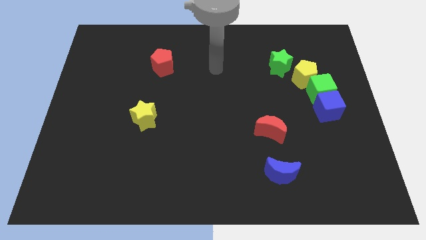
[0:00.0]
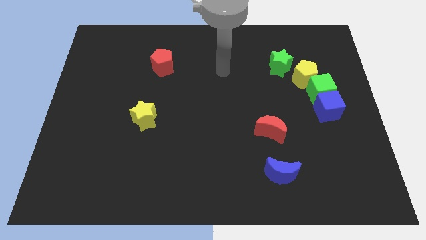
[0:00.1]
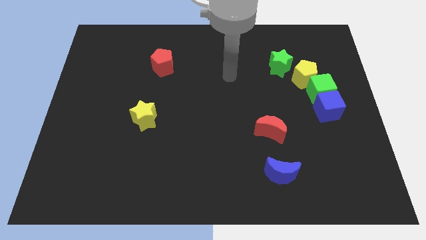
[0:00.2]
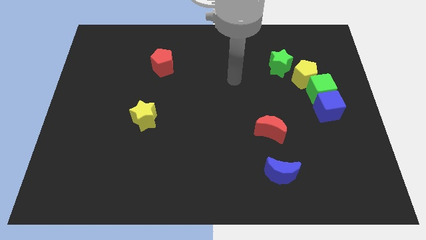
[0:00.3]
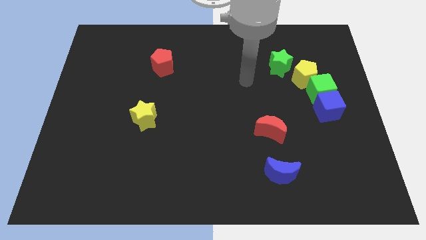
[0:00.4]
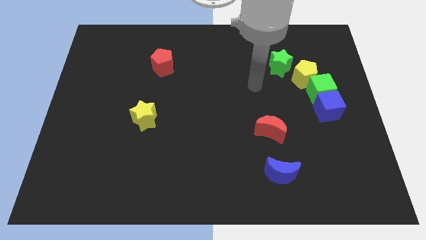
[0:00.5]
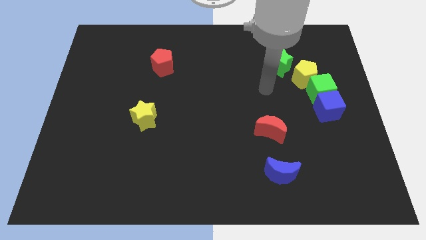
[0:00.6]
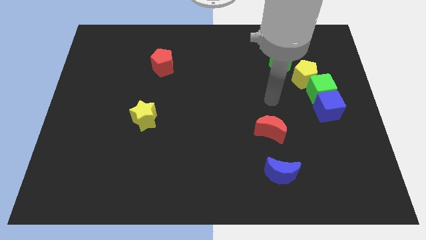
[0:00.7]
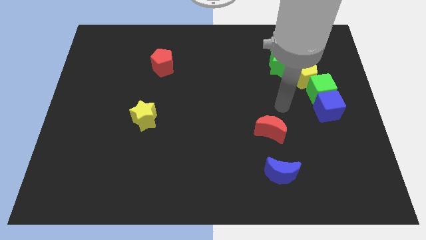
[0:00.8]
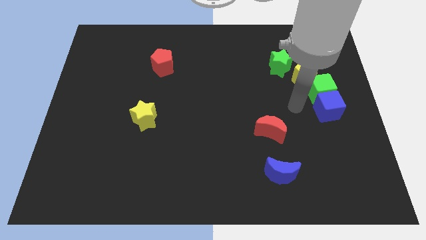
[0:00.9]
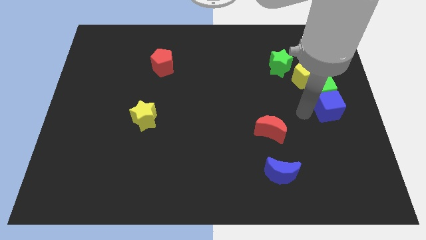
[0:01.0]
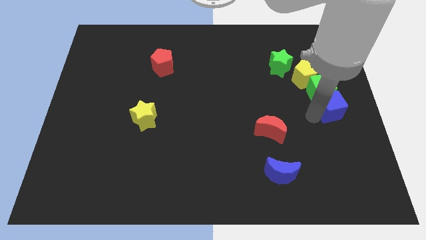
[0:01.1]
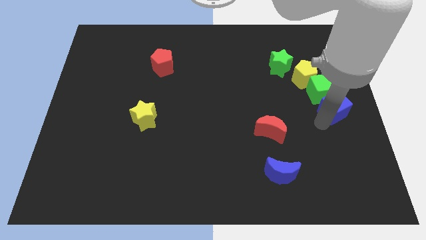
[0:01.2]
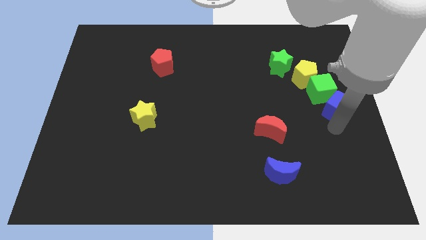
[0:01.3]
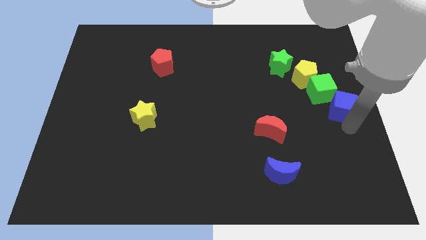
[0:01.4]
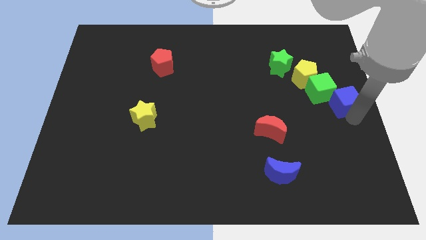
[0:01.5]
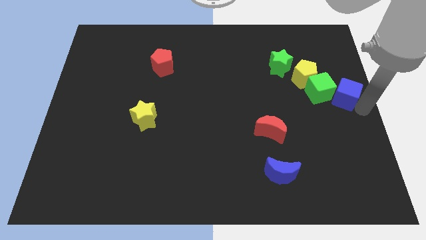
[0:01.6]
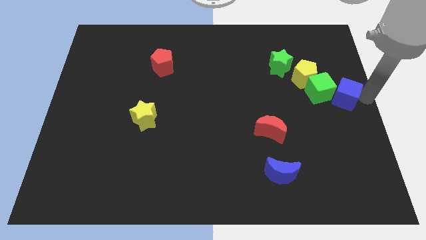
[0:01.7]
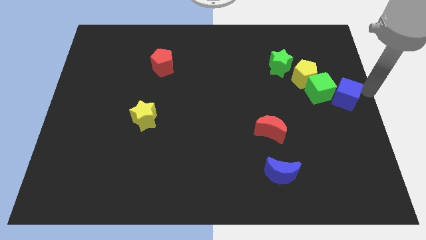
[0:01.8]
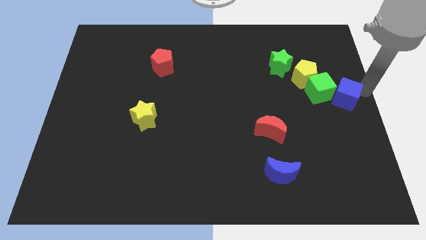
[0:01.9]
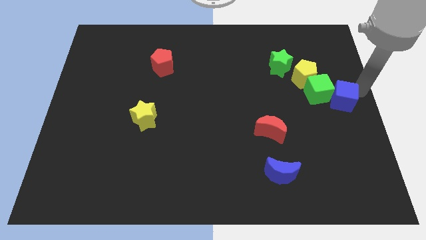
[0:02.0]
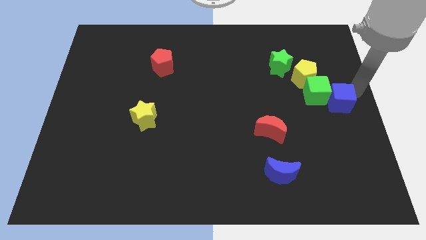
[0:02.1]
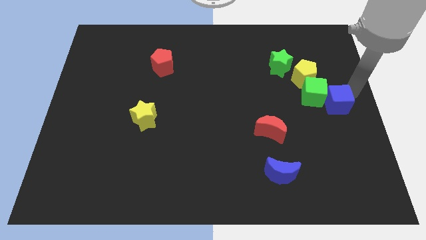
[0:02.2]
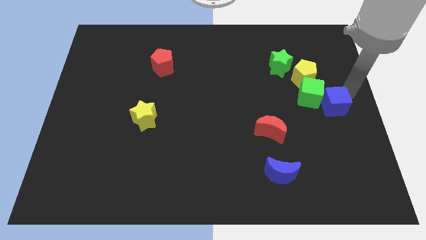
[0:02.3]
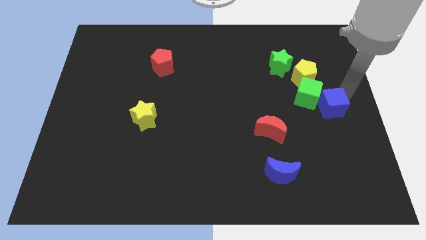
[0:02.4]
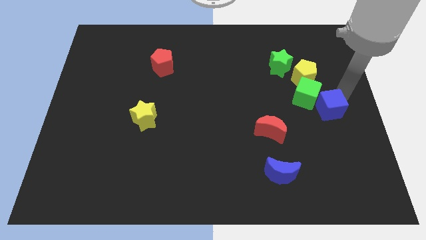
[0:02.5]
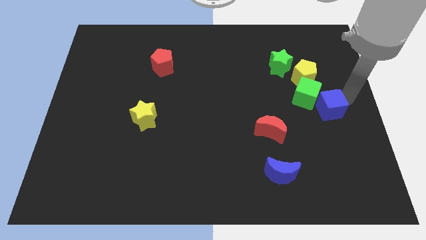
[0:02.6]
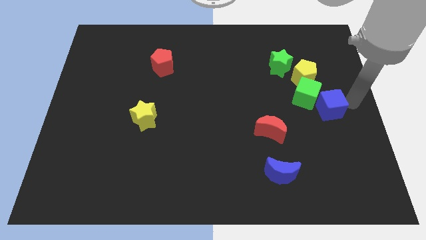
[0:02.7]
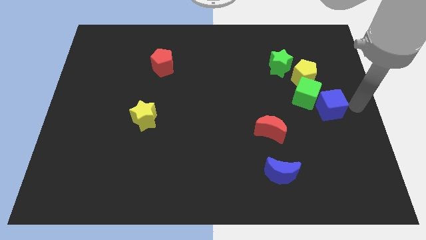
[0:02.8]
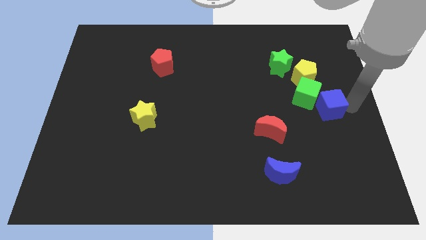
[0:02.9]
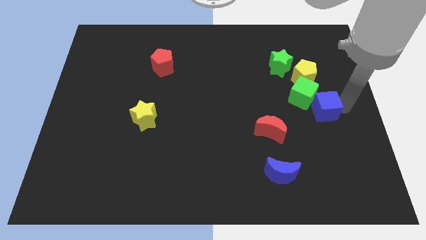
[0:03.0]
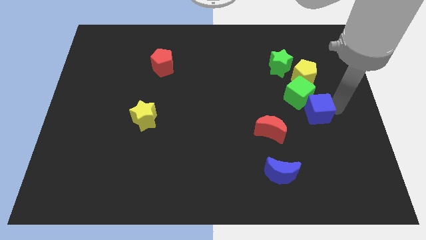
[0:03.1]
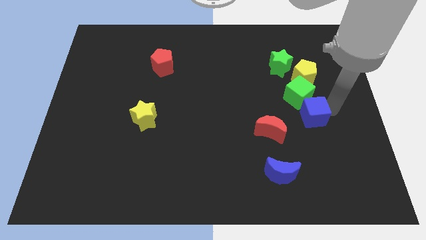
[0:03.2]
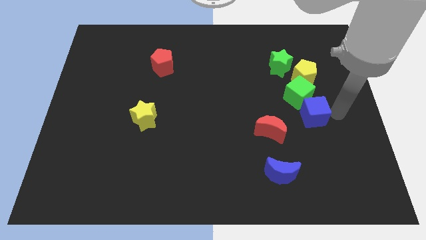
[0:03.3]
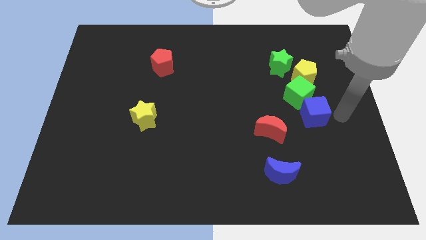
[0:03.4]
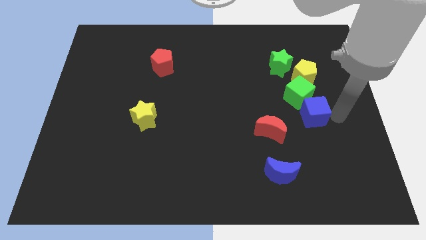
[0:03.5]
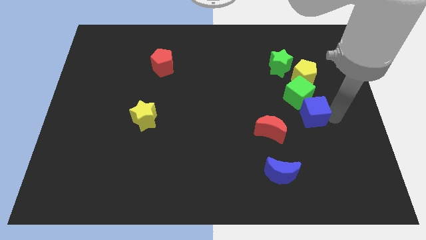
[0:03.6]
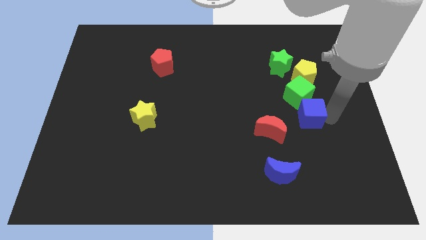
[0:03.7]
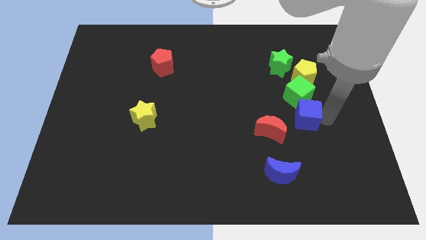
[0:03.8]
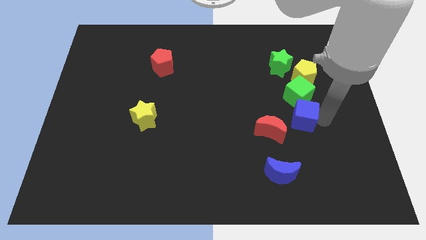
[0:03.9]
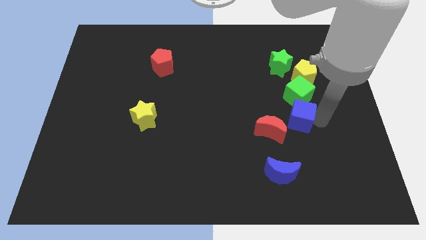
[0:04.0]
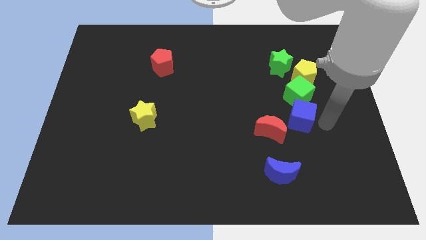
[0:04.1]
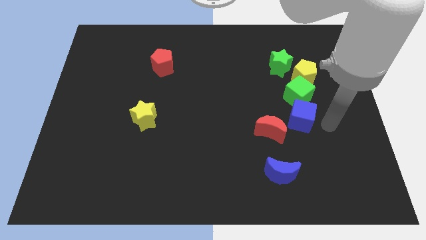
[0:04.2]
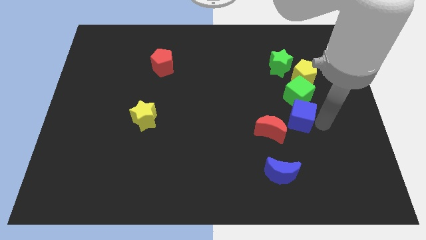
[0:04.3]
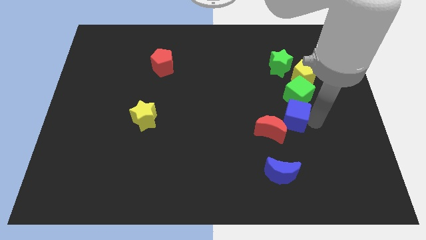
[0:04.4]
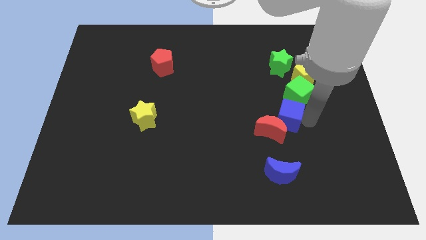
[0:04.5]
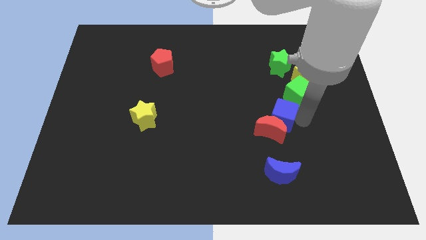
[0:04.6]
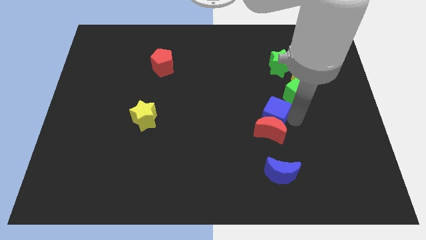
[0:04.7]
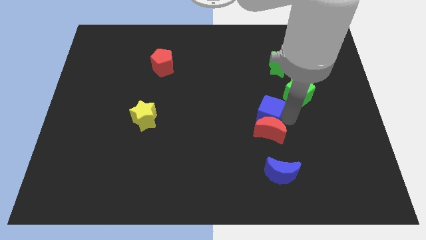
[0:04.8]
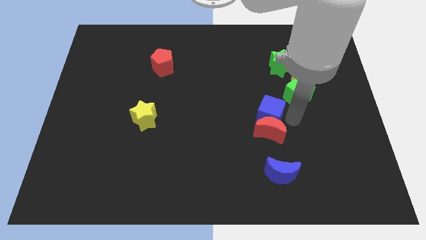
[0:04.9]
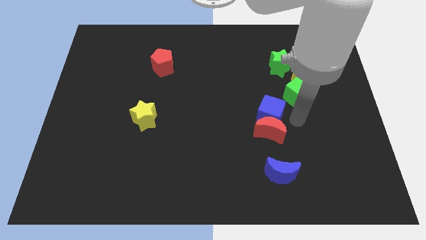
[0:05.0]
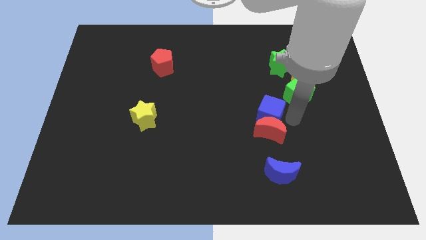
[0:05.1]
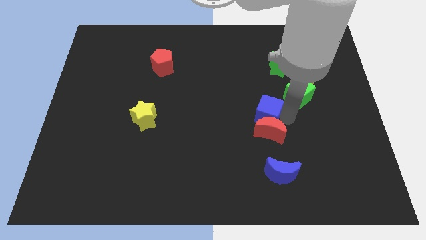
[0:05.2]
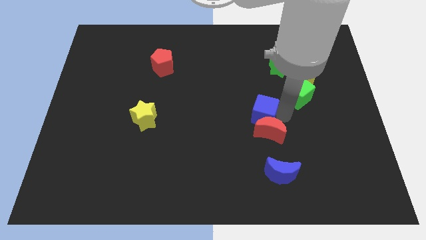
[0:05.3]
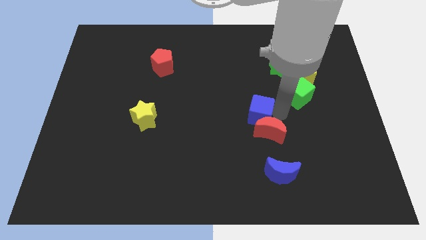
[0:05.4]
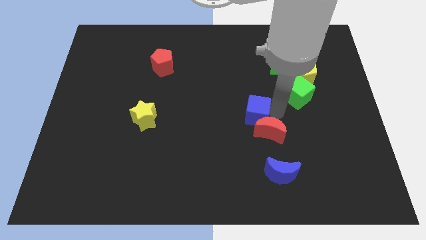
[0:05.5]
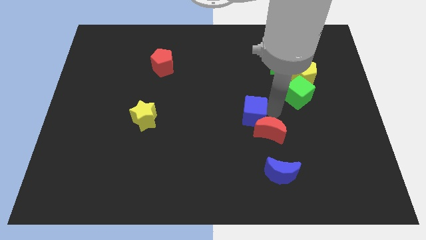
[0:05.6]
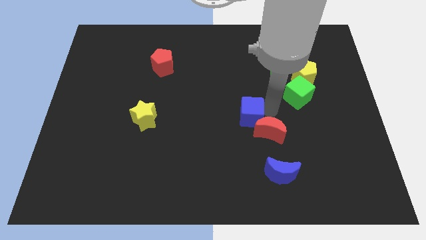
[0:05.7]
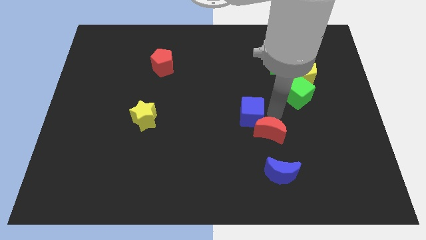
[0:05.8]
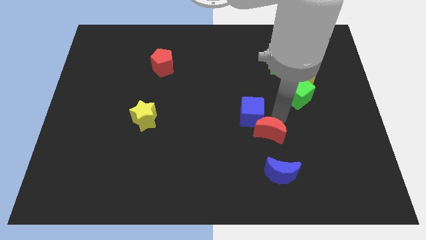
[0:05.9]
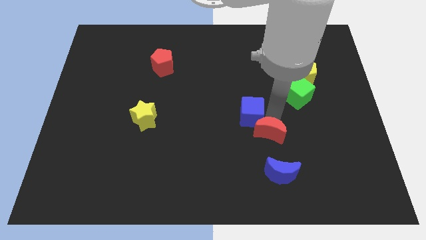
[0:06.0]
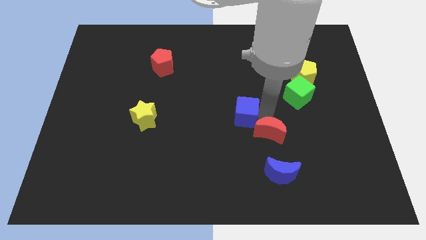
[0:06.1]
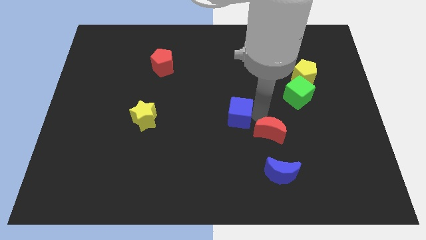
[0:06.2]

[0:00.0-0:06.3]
push the blue cube to the left

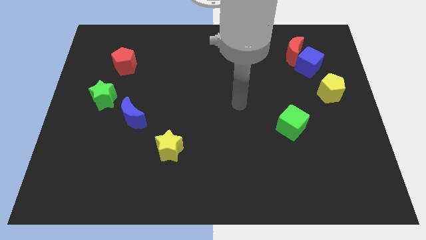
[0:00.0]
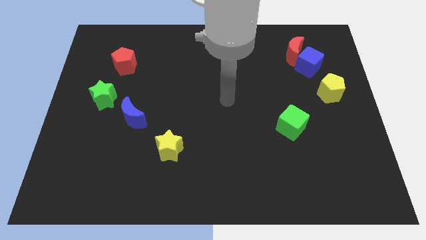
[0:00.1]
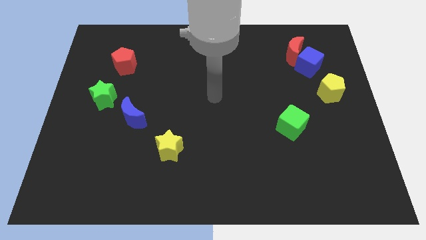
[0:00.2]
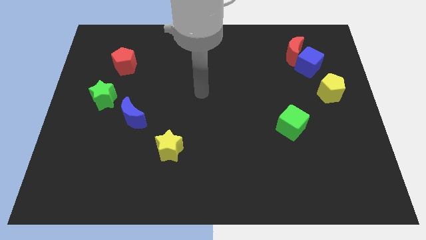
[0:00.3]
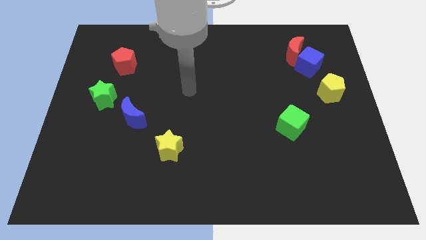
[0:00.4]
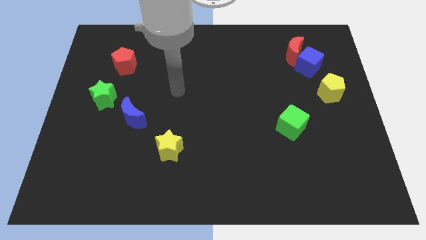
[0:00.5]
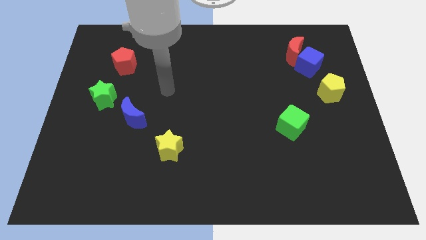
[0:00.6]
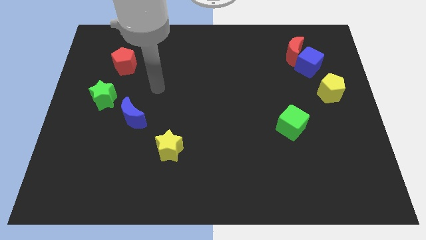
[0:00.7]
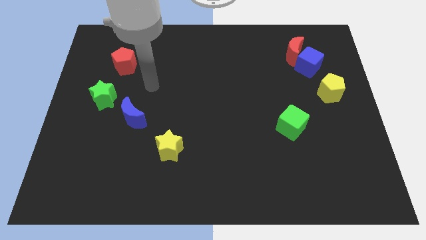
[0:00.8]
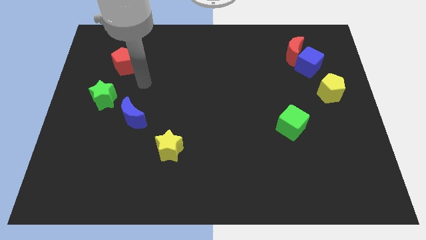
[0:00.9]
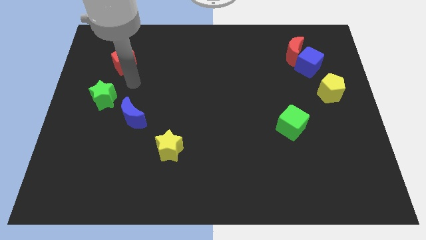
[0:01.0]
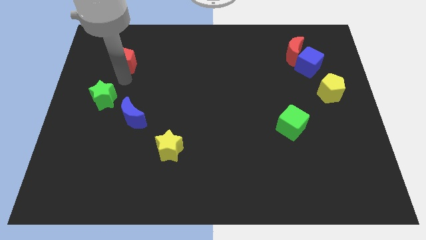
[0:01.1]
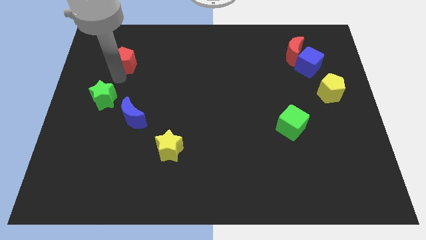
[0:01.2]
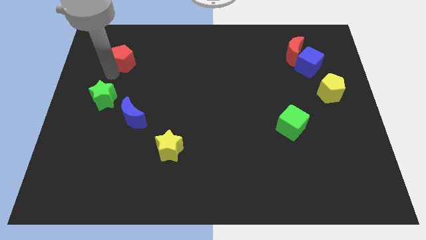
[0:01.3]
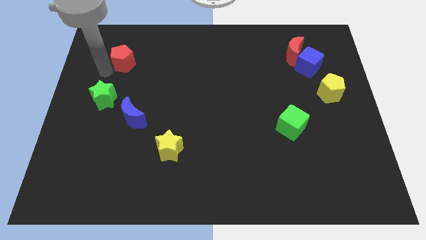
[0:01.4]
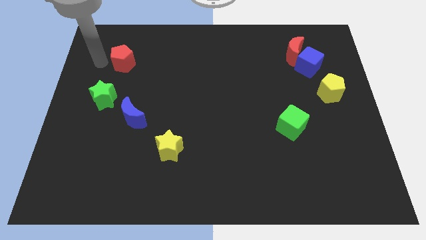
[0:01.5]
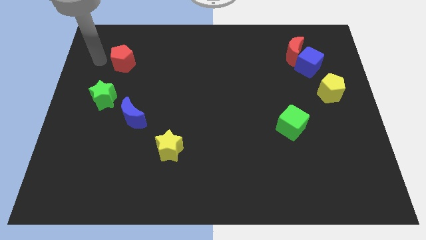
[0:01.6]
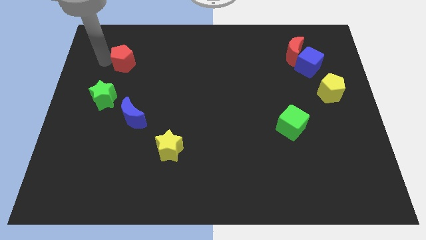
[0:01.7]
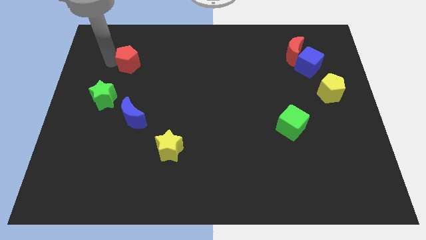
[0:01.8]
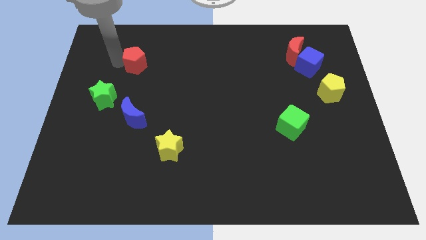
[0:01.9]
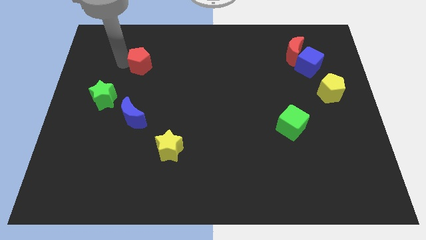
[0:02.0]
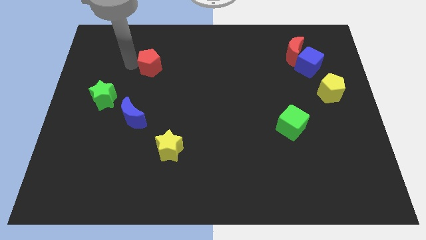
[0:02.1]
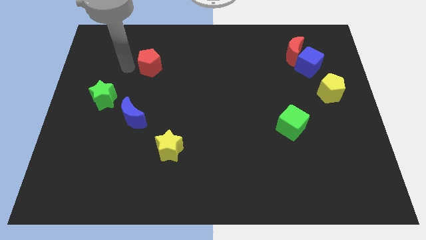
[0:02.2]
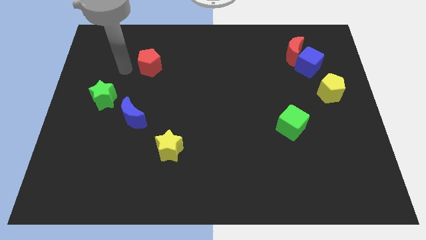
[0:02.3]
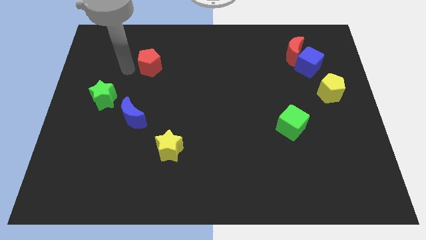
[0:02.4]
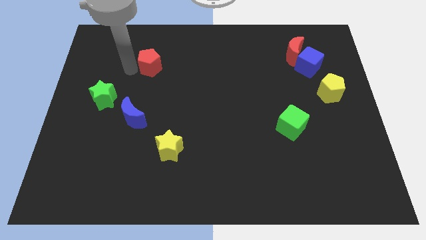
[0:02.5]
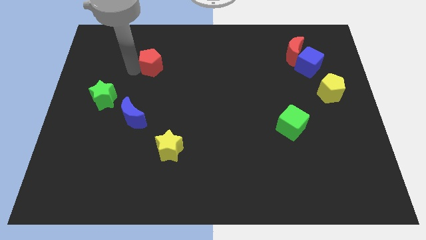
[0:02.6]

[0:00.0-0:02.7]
slightly slide the red pentagon right
